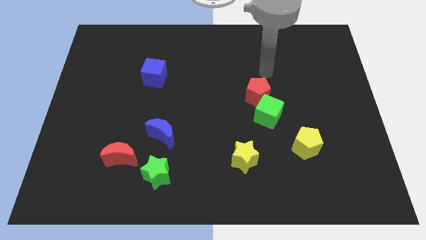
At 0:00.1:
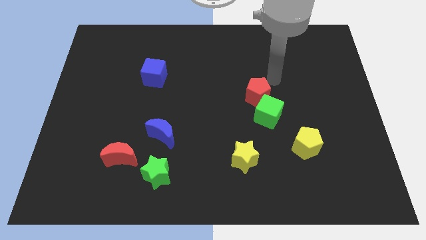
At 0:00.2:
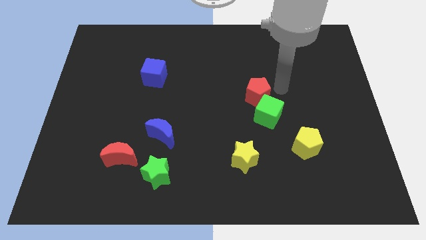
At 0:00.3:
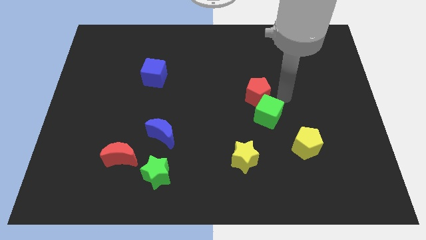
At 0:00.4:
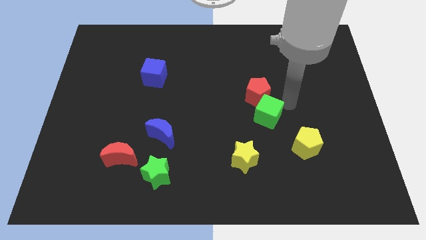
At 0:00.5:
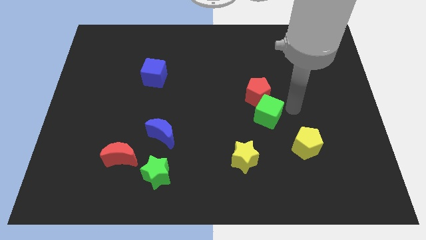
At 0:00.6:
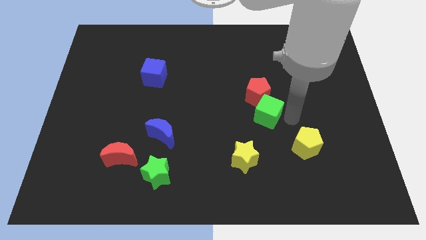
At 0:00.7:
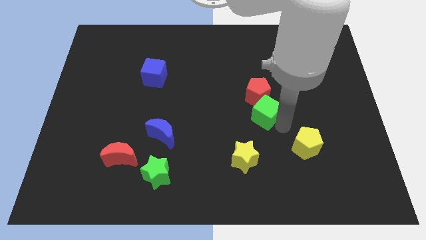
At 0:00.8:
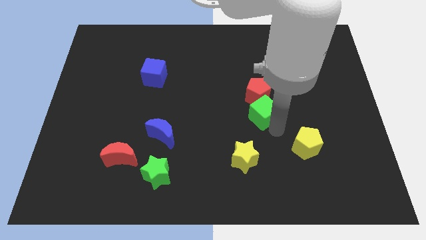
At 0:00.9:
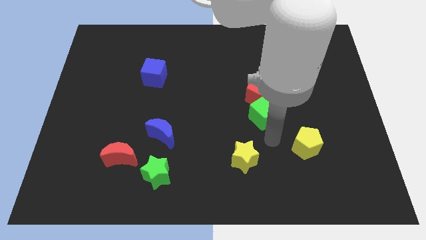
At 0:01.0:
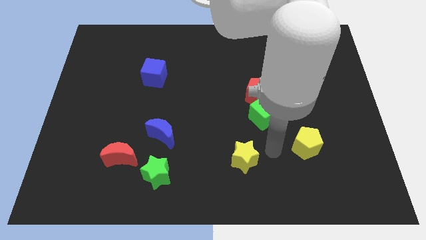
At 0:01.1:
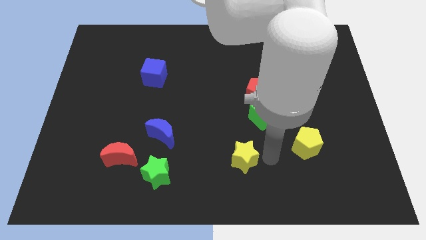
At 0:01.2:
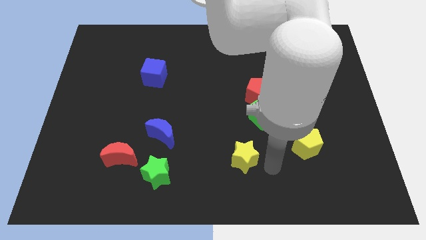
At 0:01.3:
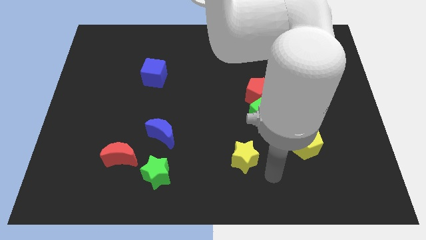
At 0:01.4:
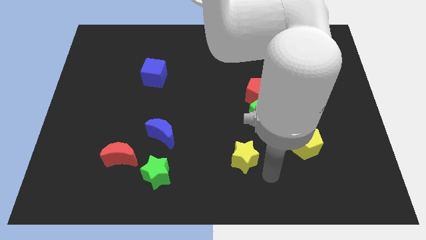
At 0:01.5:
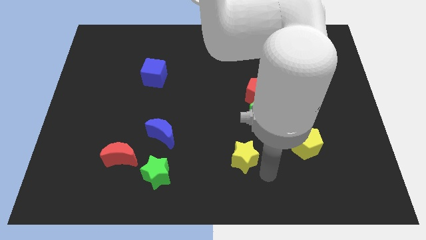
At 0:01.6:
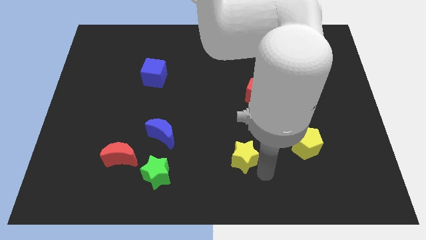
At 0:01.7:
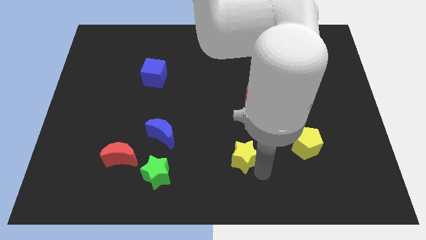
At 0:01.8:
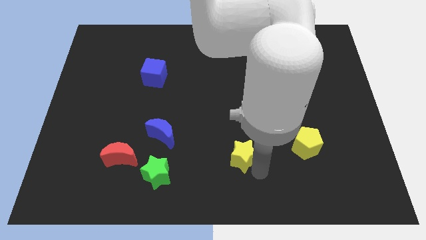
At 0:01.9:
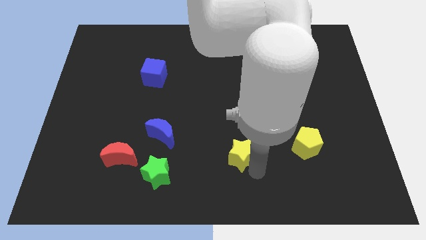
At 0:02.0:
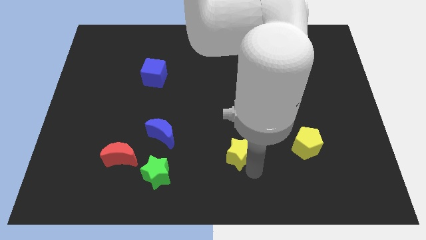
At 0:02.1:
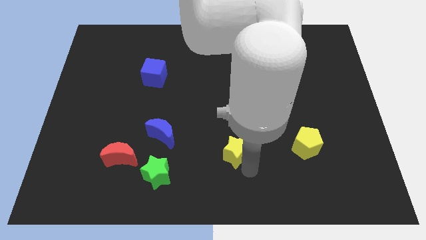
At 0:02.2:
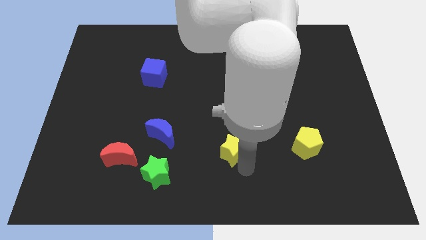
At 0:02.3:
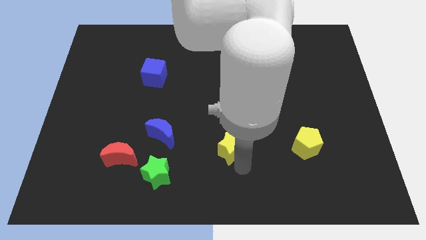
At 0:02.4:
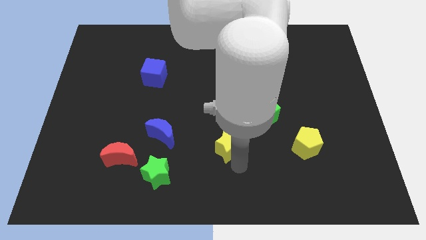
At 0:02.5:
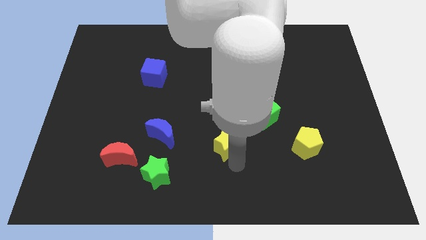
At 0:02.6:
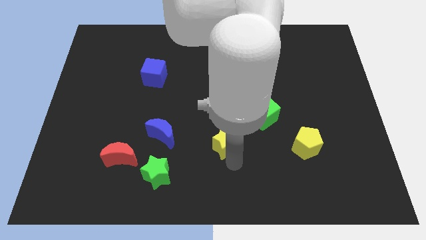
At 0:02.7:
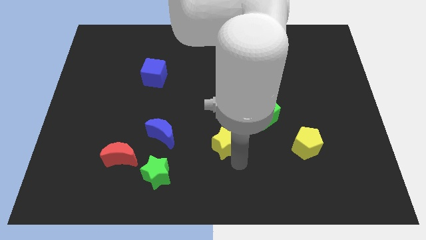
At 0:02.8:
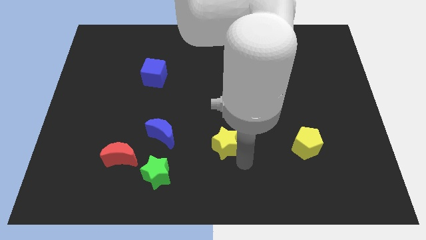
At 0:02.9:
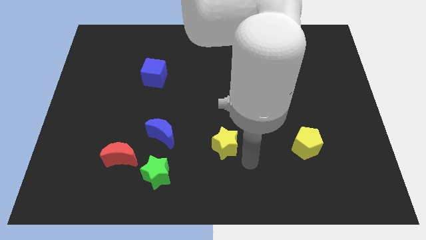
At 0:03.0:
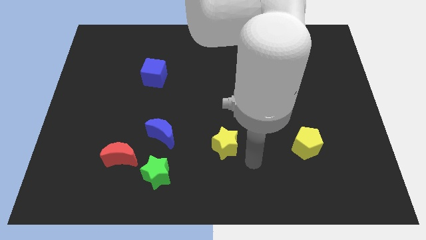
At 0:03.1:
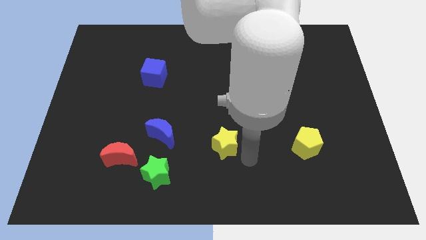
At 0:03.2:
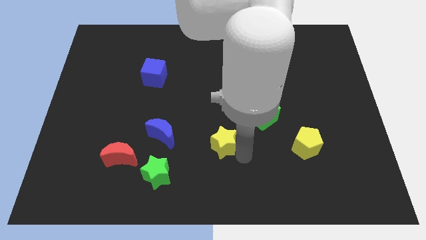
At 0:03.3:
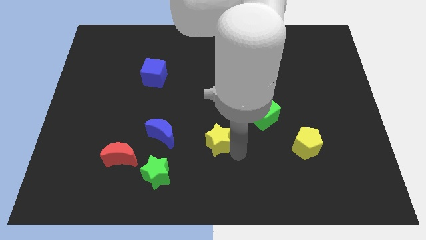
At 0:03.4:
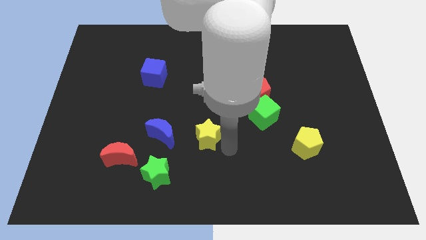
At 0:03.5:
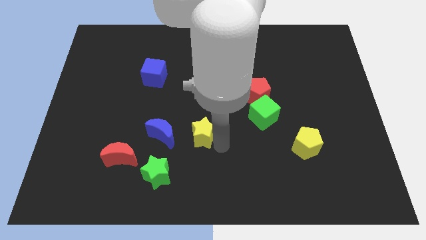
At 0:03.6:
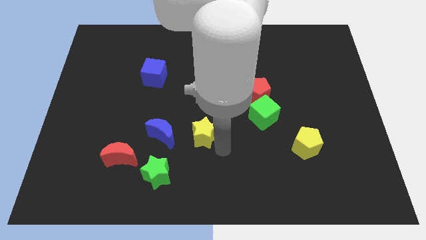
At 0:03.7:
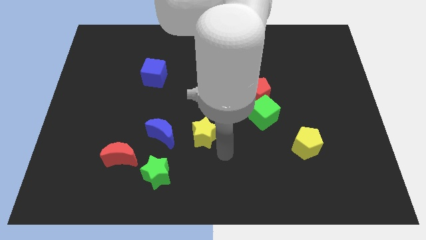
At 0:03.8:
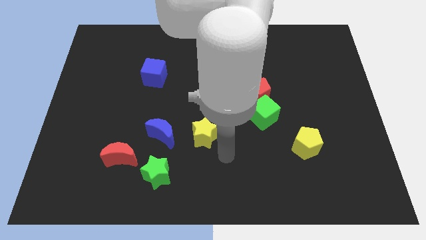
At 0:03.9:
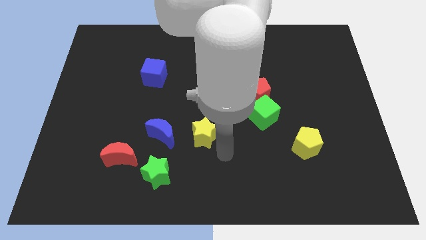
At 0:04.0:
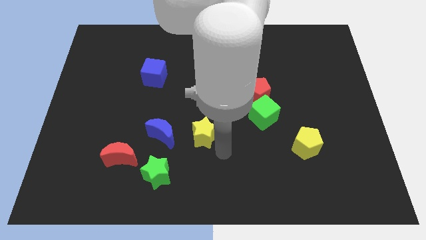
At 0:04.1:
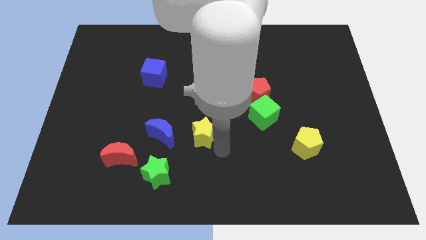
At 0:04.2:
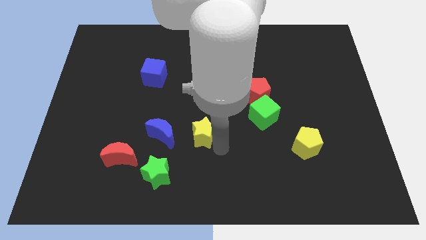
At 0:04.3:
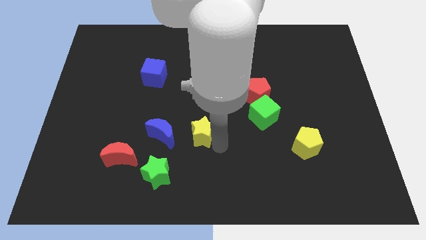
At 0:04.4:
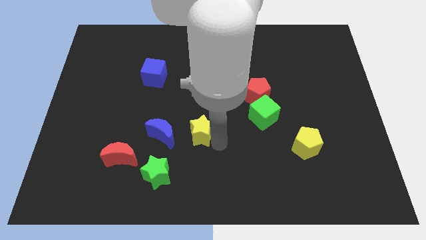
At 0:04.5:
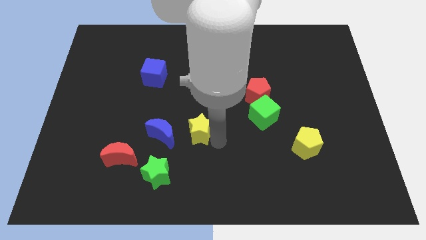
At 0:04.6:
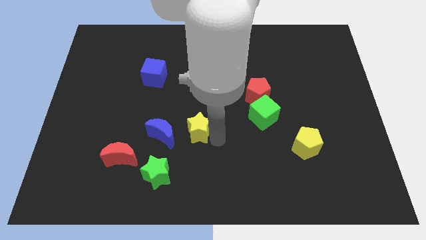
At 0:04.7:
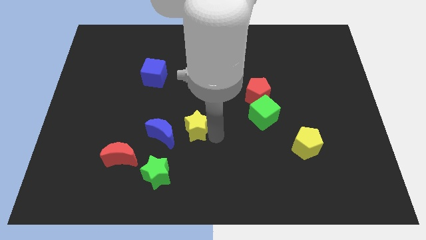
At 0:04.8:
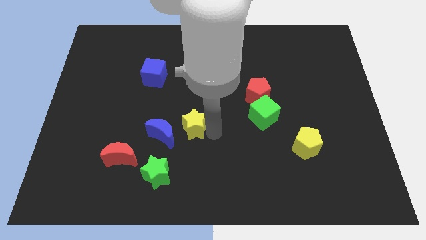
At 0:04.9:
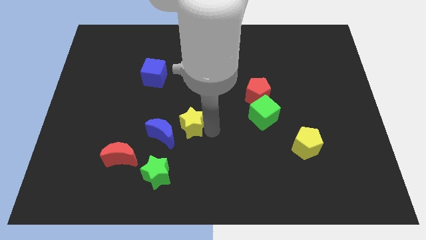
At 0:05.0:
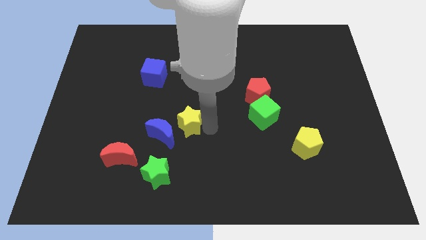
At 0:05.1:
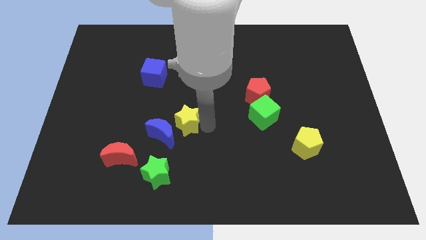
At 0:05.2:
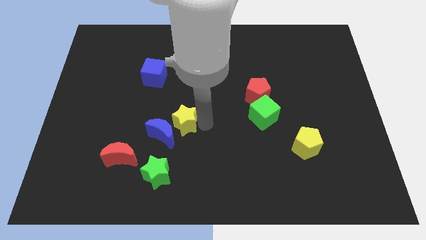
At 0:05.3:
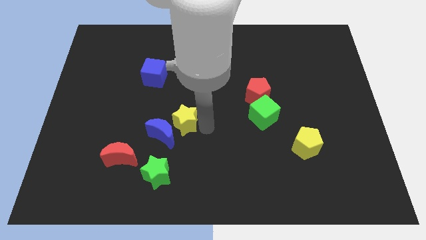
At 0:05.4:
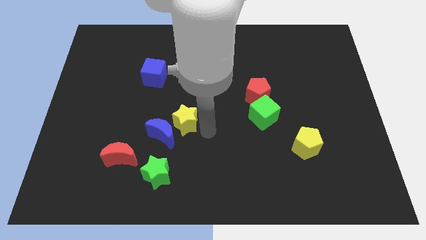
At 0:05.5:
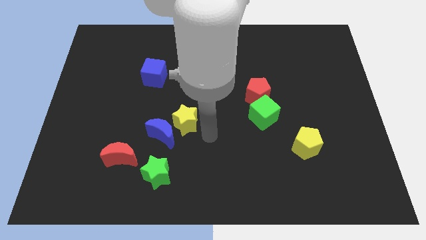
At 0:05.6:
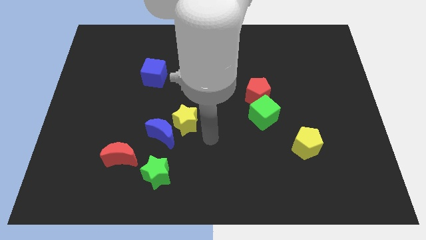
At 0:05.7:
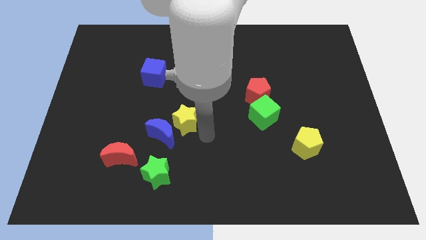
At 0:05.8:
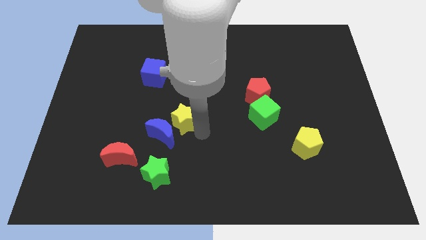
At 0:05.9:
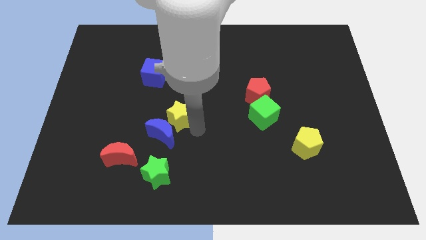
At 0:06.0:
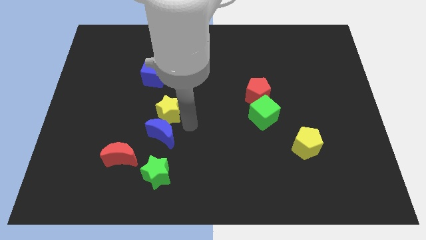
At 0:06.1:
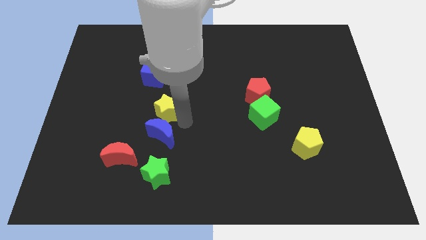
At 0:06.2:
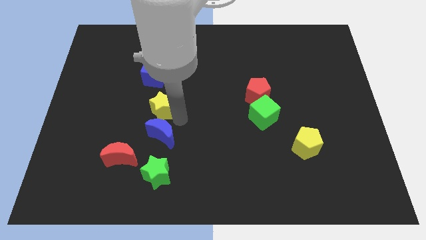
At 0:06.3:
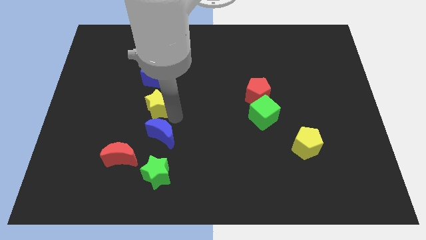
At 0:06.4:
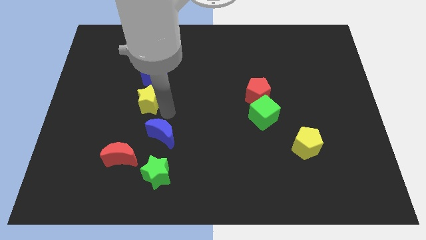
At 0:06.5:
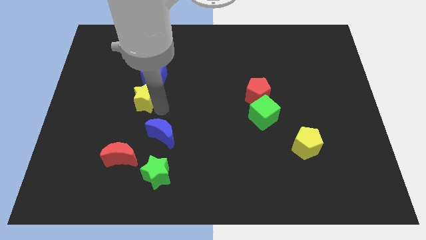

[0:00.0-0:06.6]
put the yellow star to the bottom left of the blue cube

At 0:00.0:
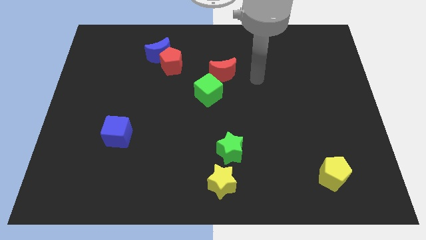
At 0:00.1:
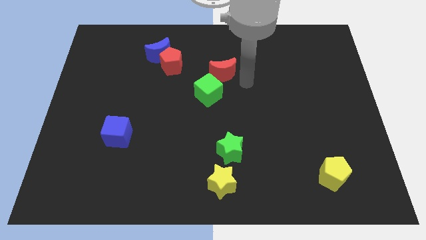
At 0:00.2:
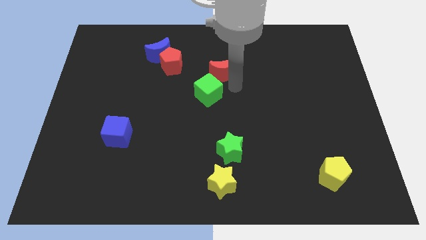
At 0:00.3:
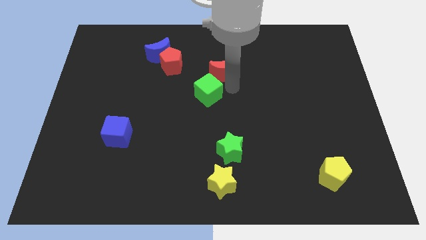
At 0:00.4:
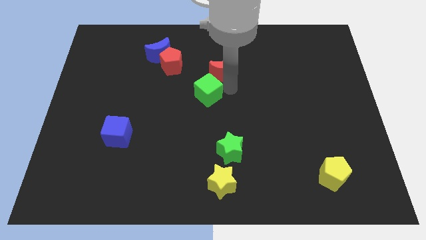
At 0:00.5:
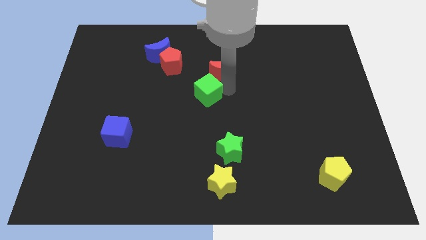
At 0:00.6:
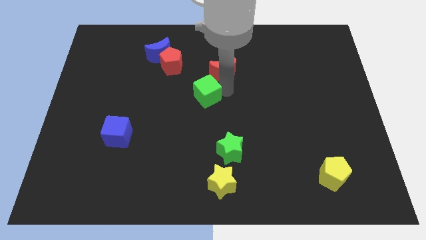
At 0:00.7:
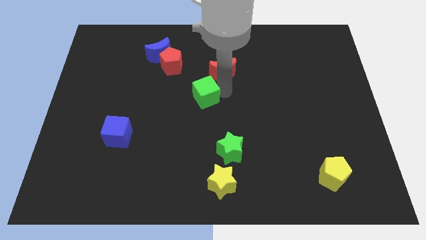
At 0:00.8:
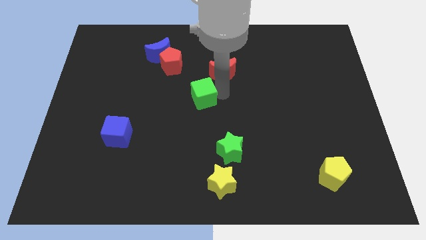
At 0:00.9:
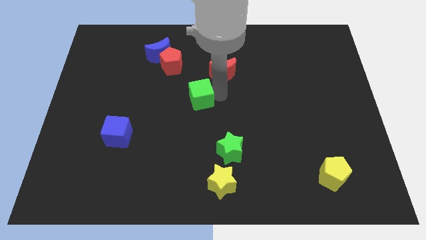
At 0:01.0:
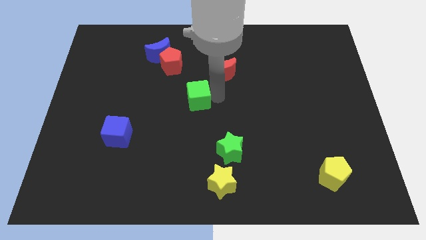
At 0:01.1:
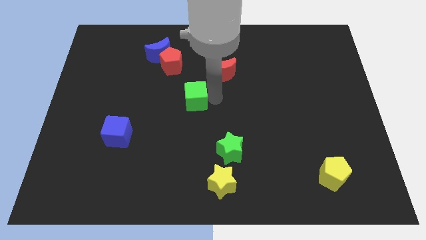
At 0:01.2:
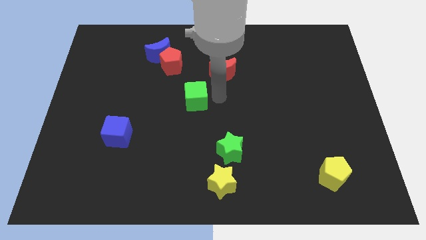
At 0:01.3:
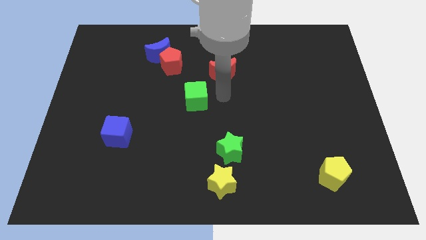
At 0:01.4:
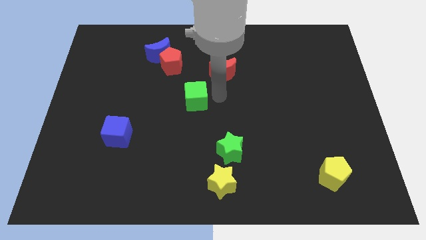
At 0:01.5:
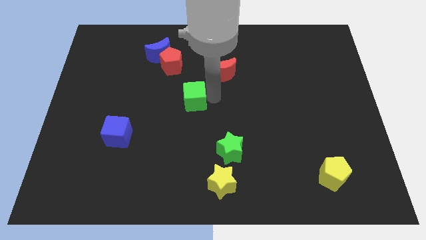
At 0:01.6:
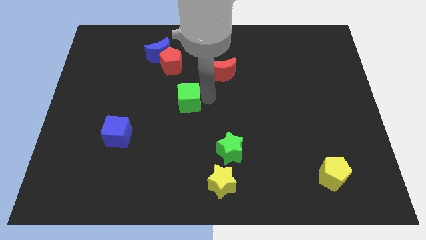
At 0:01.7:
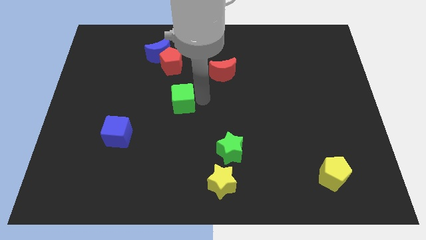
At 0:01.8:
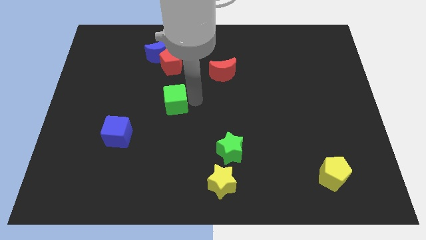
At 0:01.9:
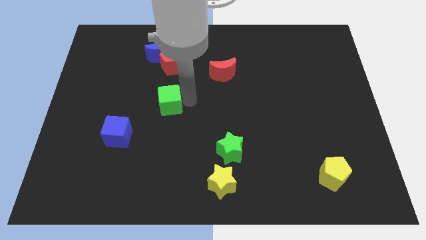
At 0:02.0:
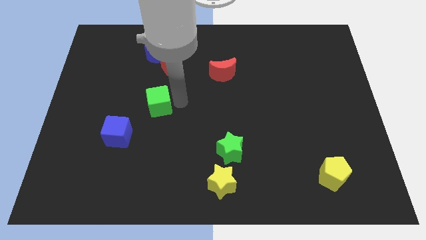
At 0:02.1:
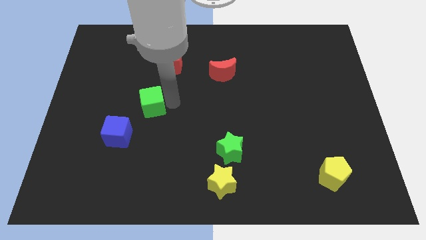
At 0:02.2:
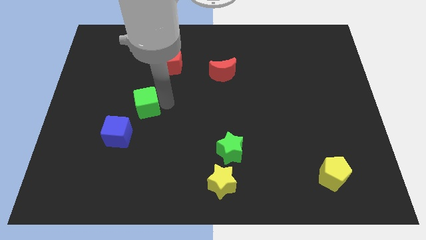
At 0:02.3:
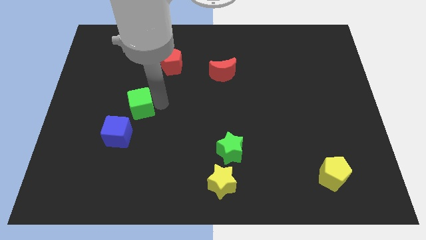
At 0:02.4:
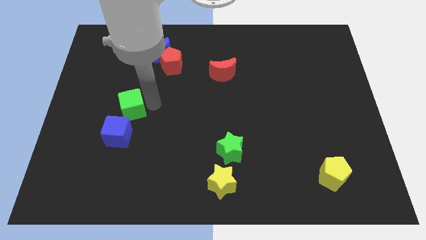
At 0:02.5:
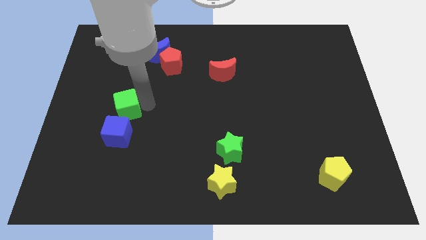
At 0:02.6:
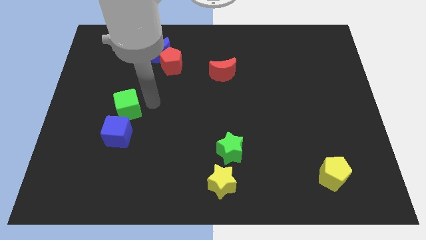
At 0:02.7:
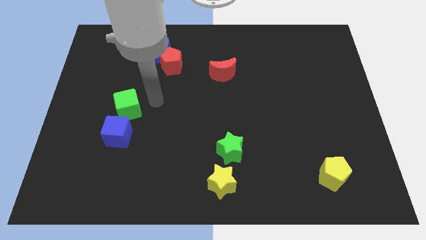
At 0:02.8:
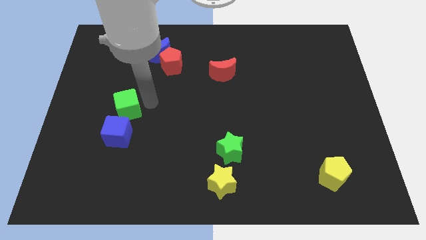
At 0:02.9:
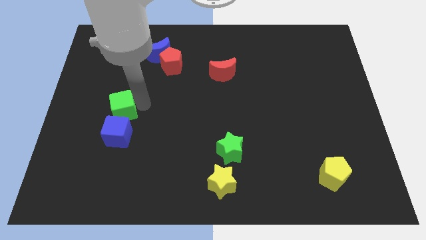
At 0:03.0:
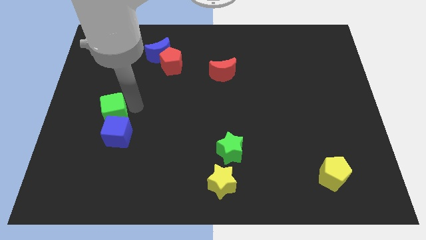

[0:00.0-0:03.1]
move the green cube to the top left side of the blue cube
